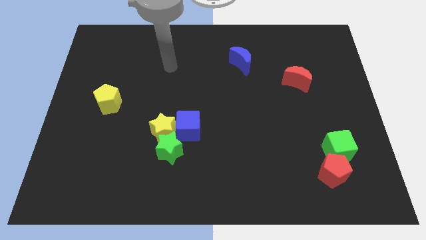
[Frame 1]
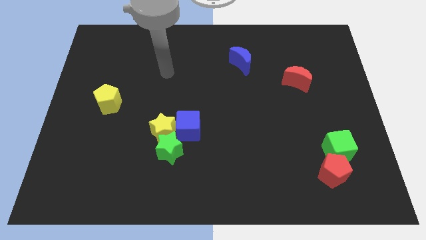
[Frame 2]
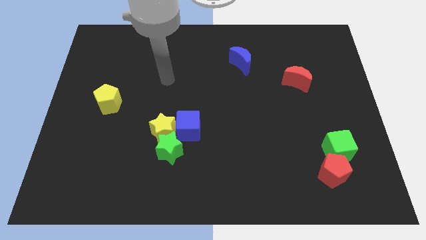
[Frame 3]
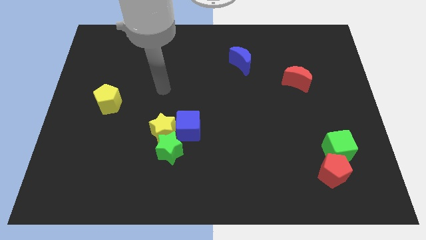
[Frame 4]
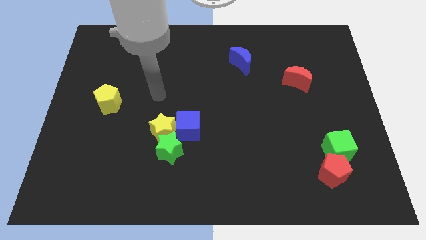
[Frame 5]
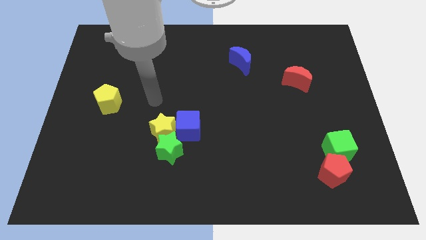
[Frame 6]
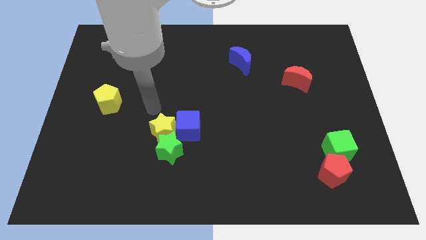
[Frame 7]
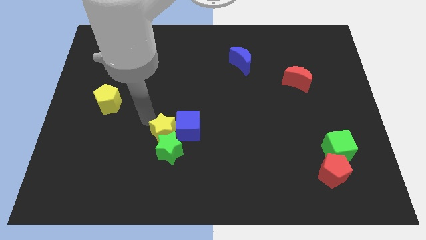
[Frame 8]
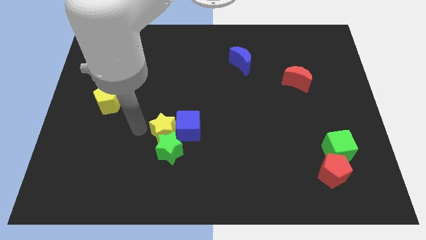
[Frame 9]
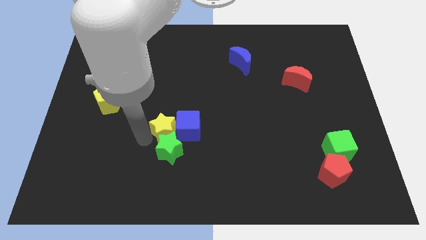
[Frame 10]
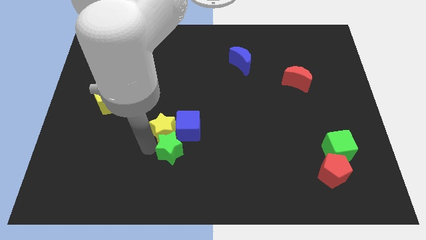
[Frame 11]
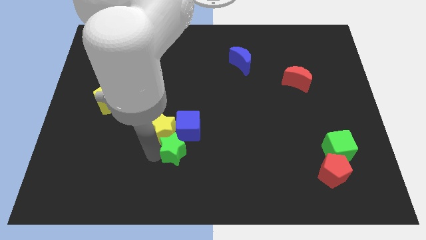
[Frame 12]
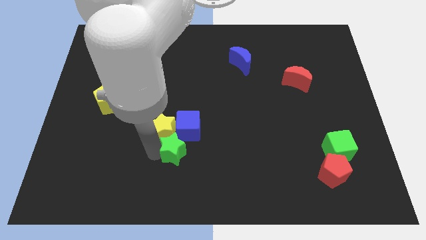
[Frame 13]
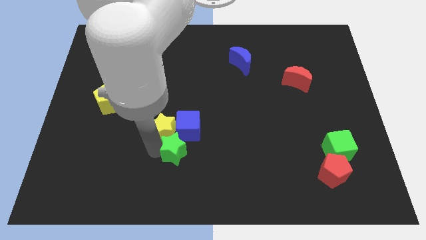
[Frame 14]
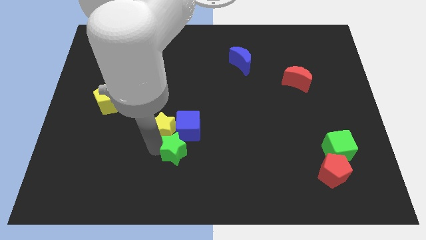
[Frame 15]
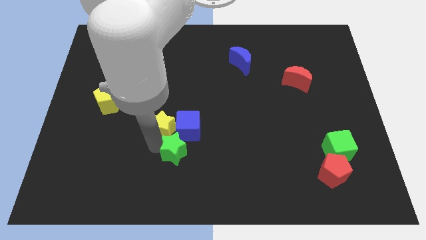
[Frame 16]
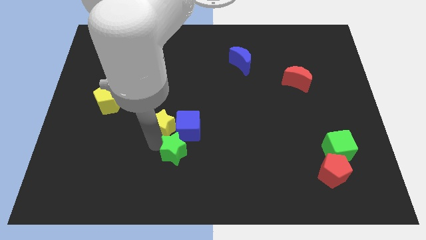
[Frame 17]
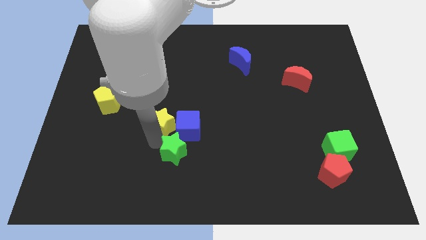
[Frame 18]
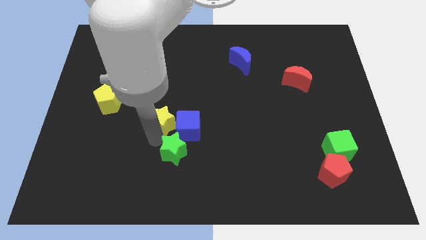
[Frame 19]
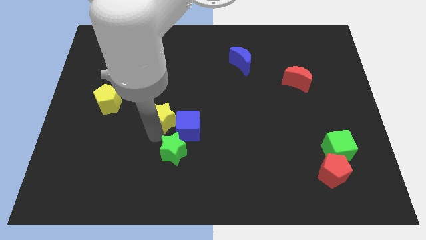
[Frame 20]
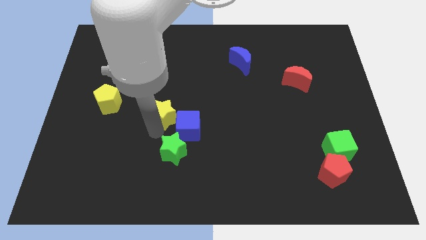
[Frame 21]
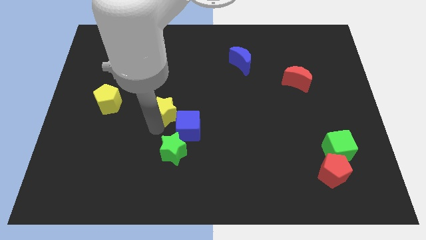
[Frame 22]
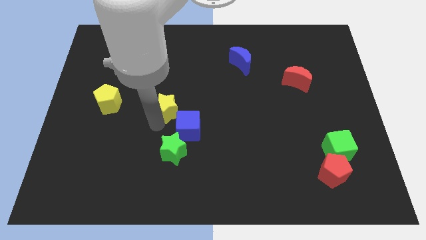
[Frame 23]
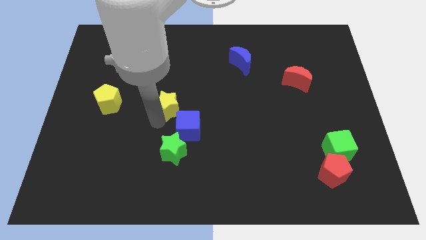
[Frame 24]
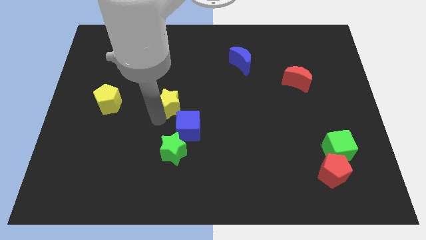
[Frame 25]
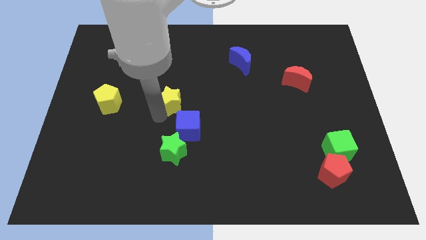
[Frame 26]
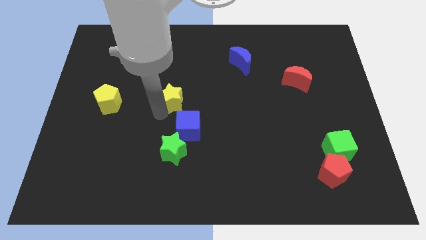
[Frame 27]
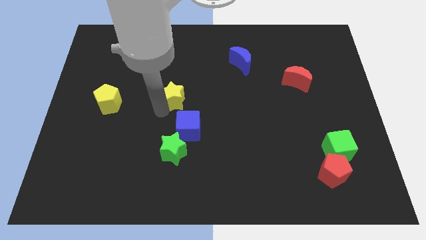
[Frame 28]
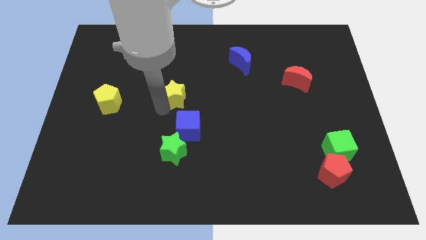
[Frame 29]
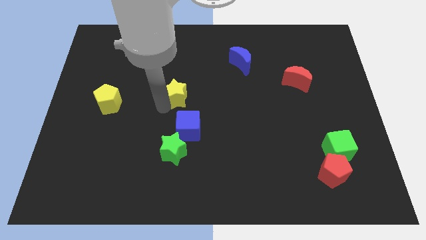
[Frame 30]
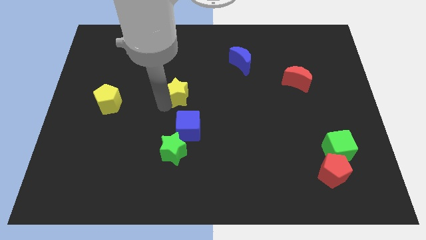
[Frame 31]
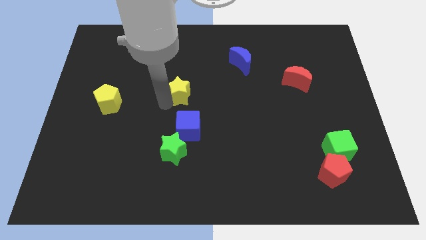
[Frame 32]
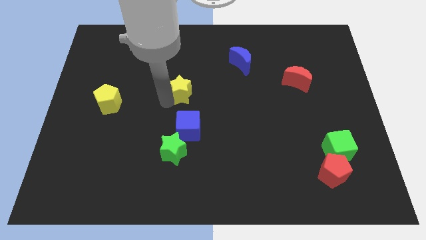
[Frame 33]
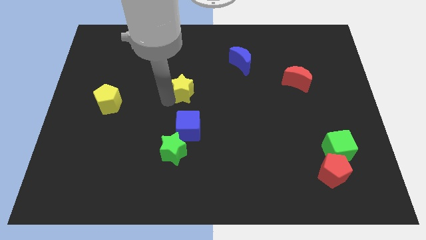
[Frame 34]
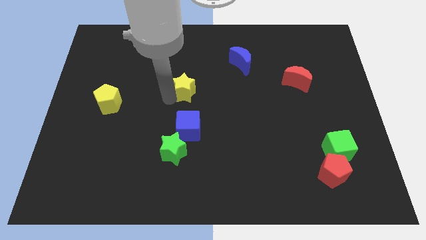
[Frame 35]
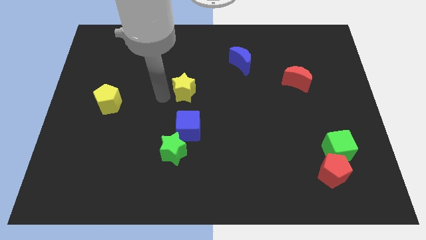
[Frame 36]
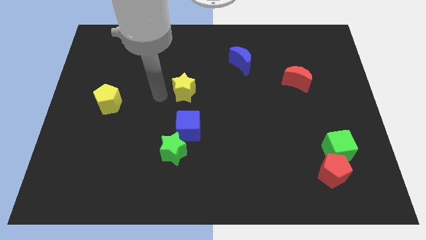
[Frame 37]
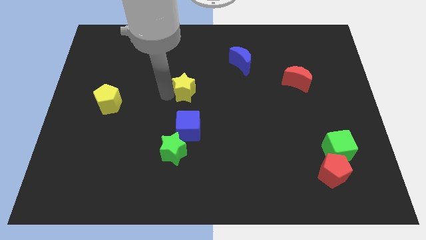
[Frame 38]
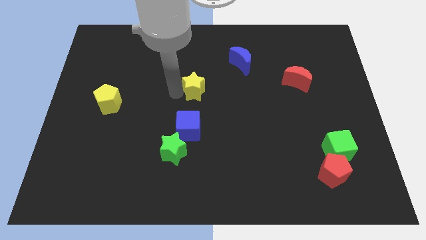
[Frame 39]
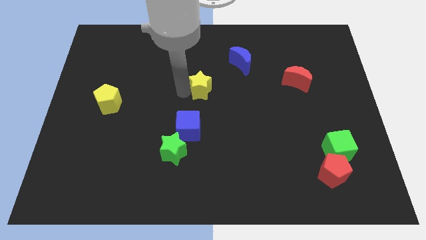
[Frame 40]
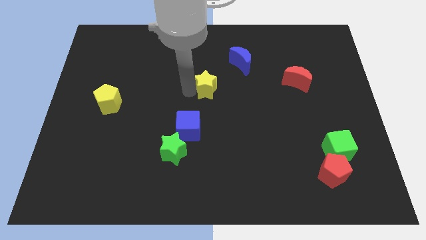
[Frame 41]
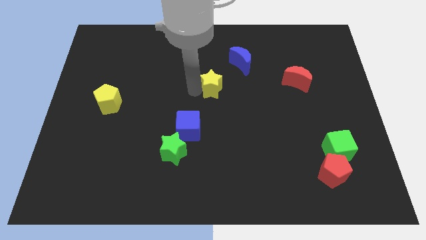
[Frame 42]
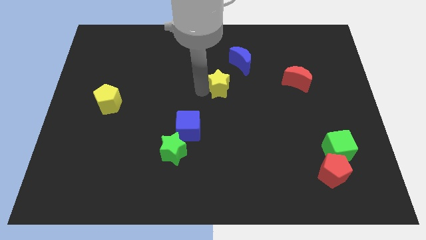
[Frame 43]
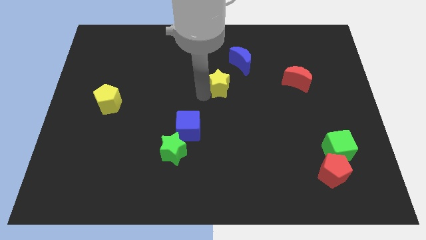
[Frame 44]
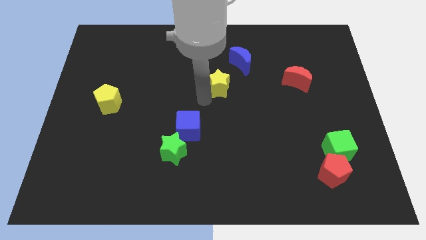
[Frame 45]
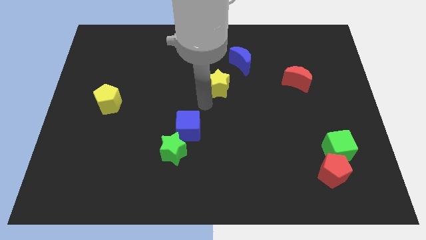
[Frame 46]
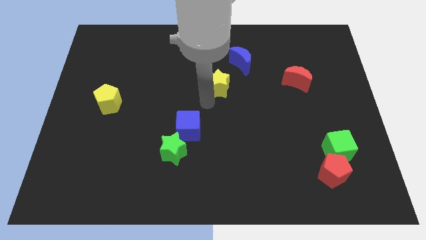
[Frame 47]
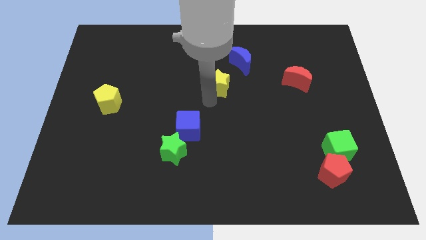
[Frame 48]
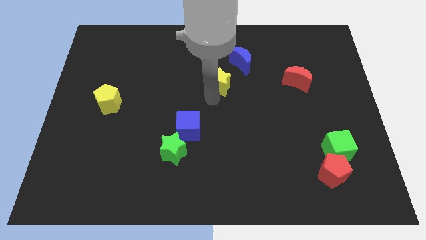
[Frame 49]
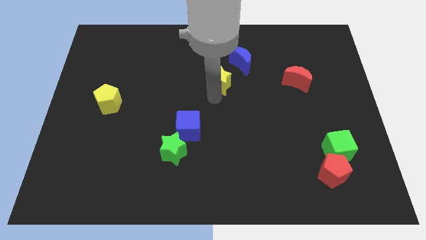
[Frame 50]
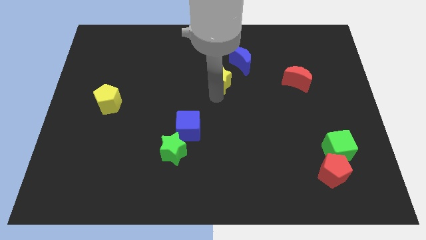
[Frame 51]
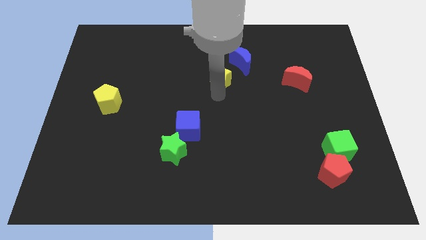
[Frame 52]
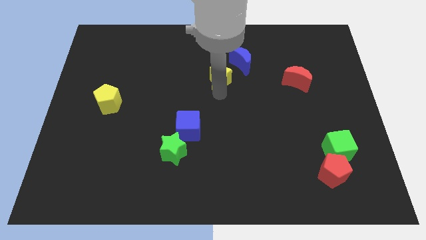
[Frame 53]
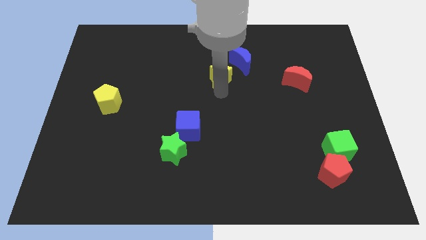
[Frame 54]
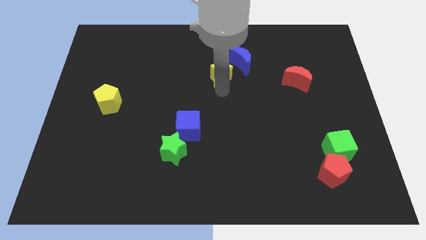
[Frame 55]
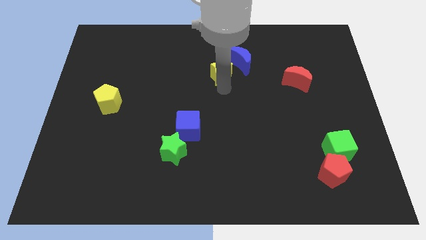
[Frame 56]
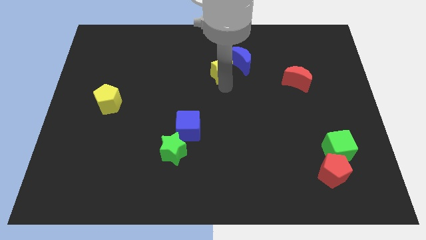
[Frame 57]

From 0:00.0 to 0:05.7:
put the yellow star towards the blue moon

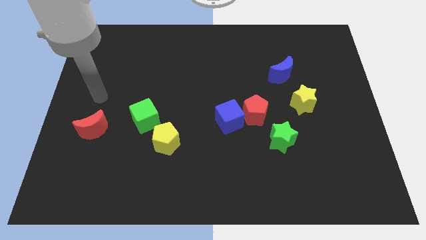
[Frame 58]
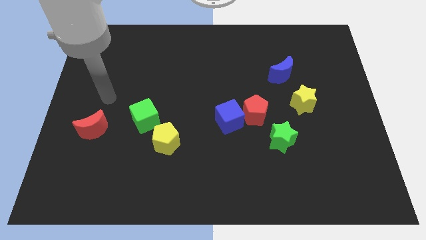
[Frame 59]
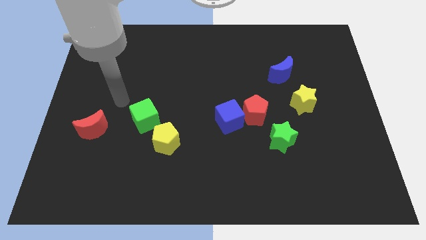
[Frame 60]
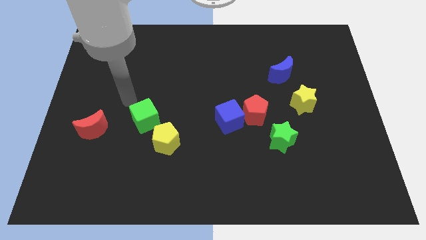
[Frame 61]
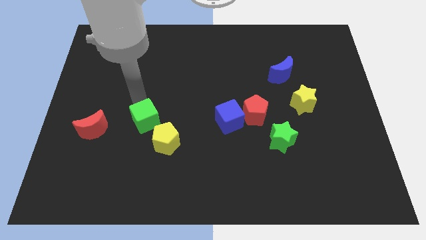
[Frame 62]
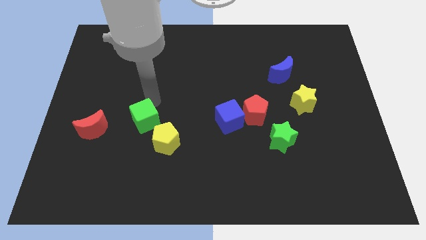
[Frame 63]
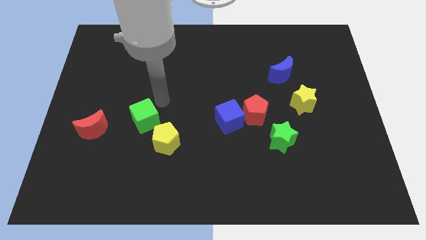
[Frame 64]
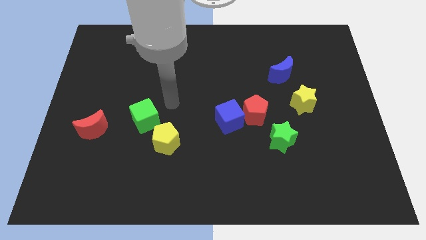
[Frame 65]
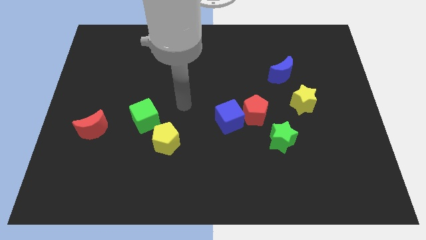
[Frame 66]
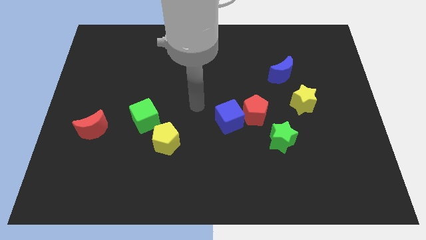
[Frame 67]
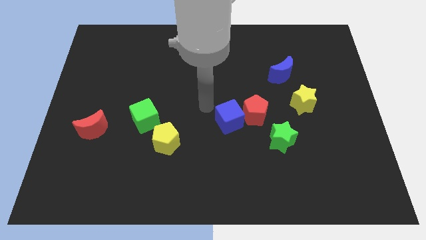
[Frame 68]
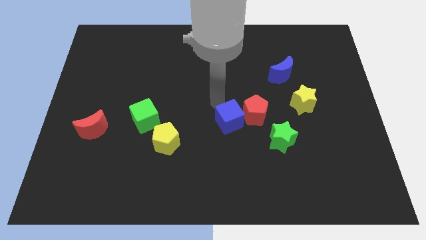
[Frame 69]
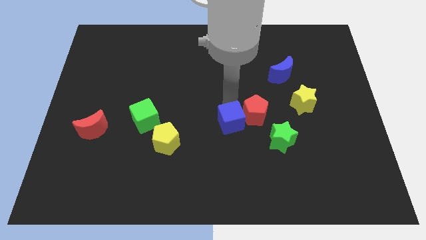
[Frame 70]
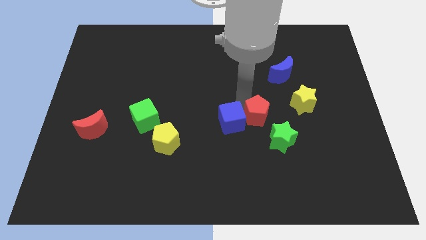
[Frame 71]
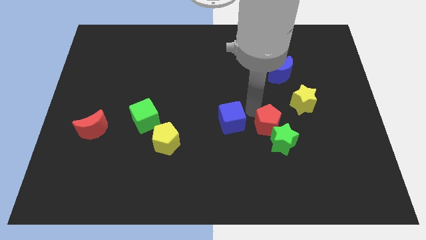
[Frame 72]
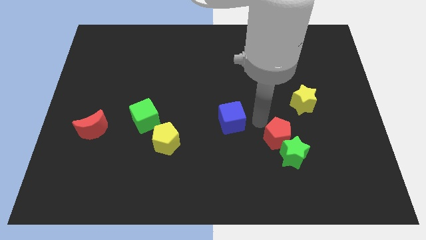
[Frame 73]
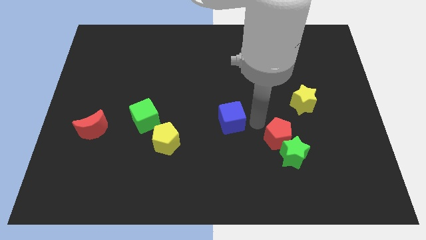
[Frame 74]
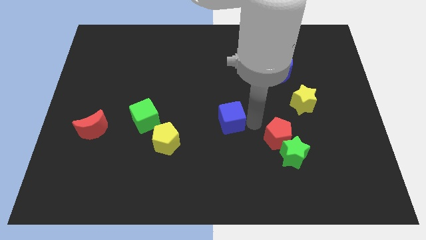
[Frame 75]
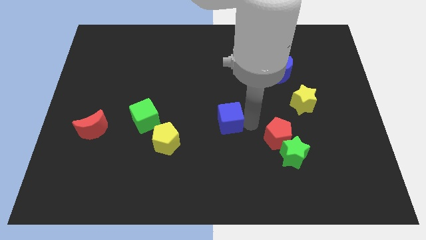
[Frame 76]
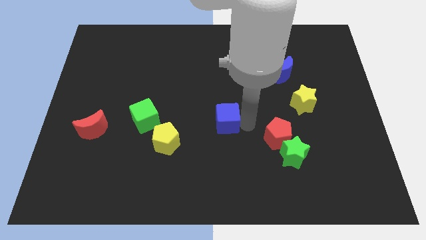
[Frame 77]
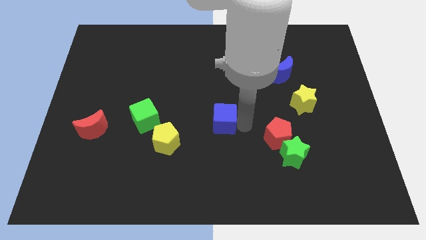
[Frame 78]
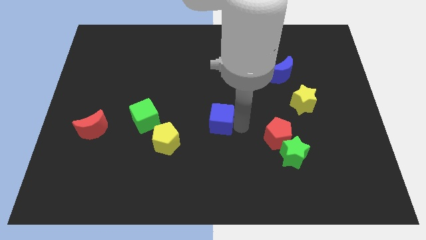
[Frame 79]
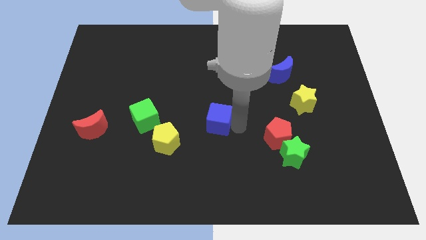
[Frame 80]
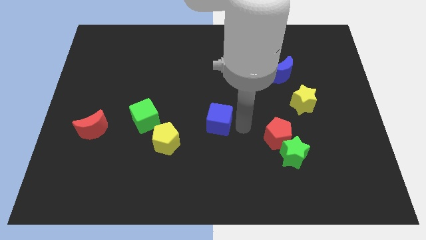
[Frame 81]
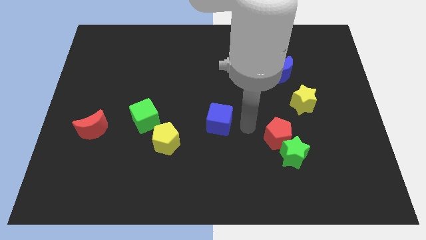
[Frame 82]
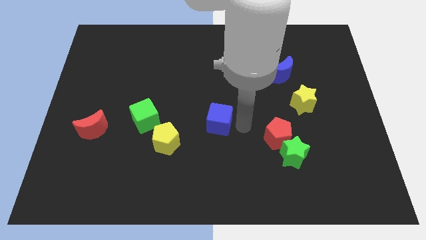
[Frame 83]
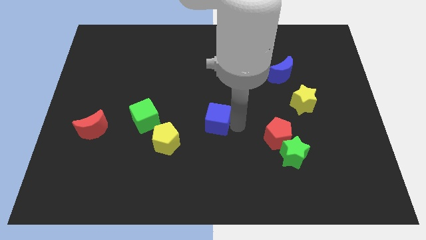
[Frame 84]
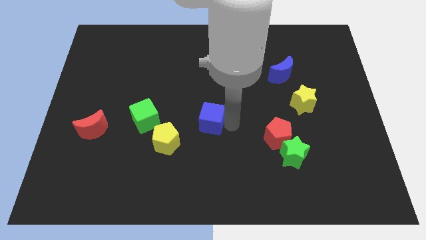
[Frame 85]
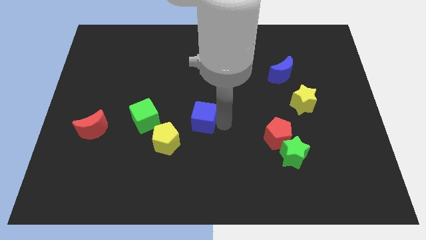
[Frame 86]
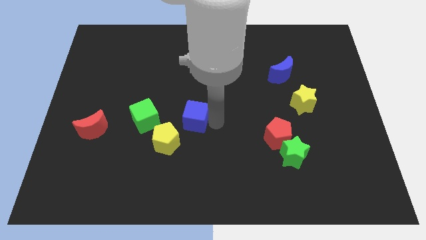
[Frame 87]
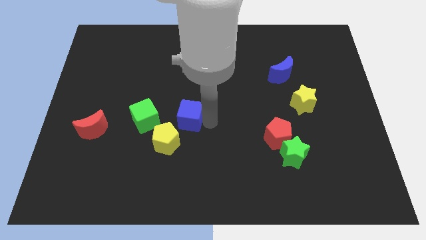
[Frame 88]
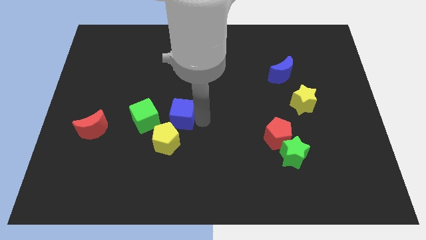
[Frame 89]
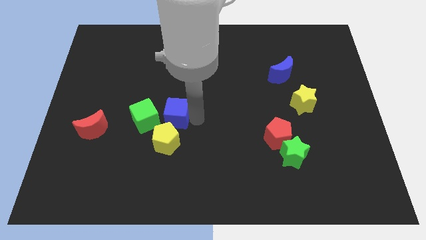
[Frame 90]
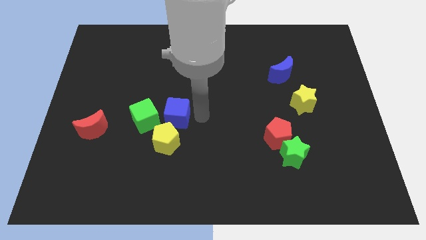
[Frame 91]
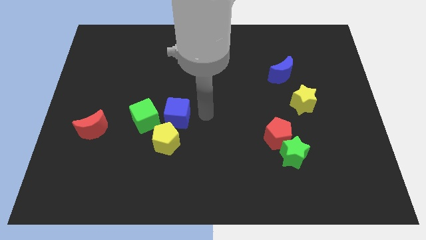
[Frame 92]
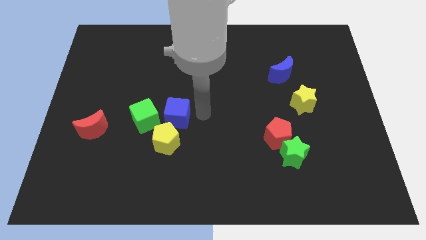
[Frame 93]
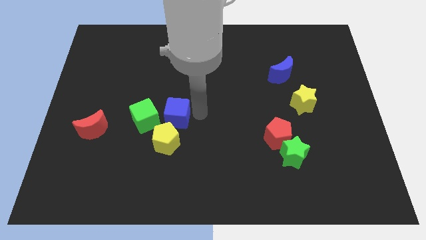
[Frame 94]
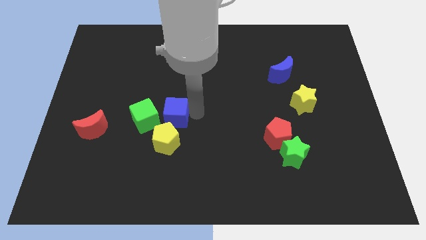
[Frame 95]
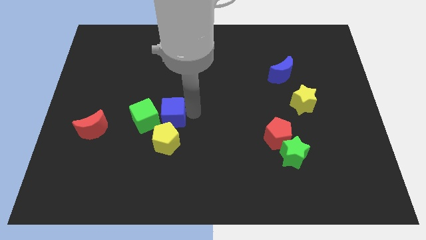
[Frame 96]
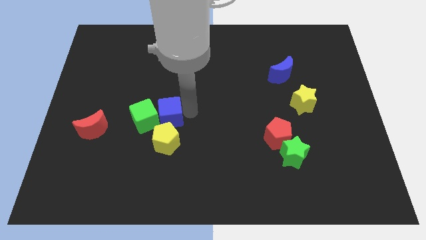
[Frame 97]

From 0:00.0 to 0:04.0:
move the blue cube close to the green cube
